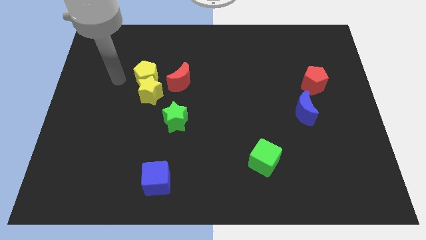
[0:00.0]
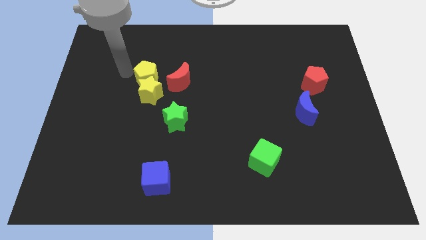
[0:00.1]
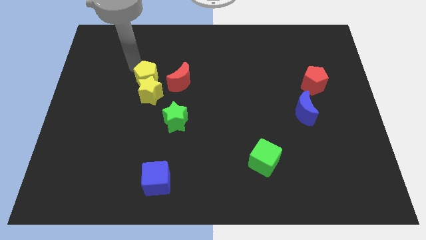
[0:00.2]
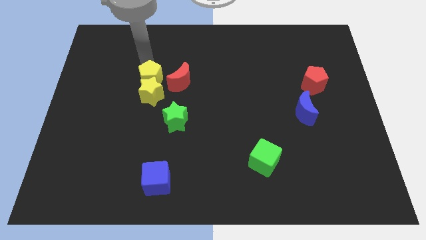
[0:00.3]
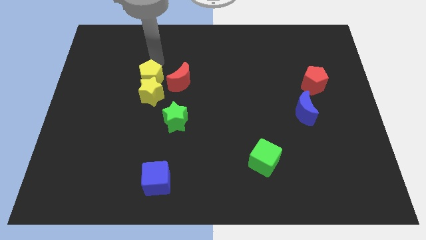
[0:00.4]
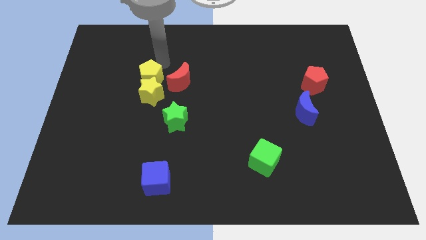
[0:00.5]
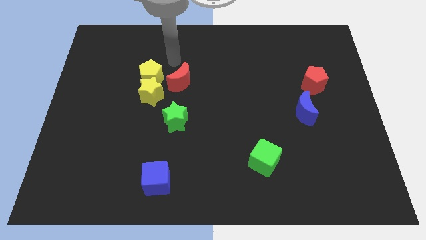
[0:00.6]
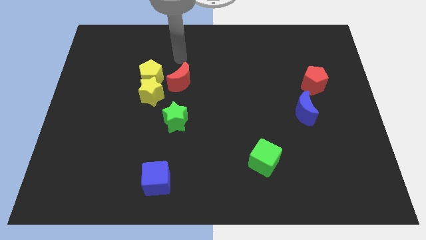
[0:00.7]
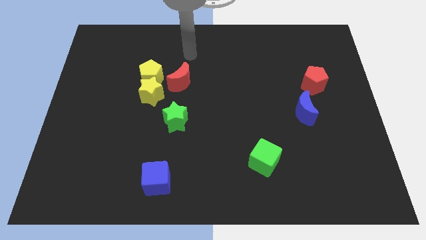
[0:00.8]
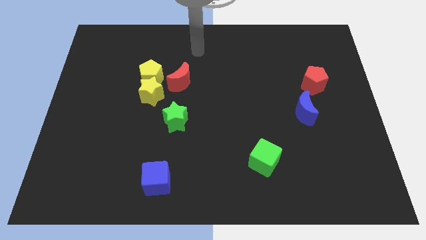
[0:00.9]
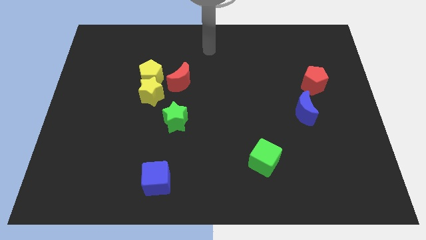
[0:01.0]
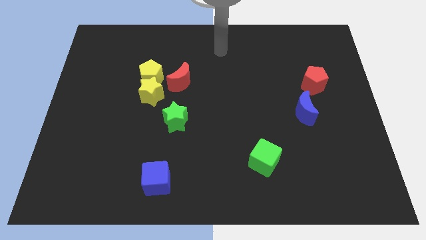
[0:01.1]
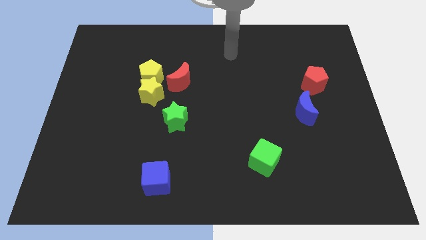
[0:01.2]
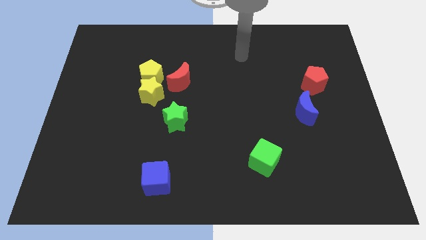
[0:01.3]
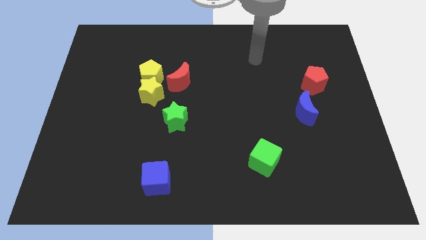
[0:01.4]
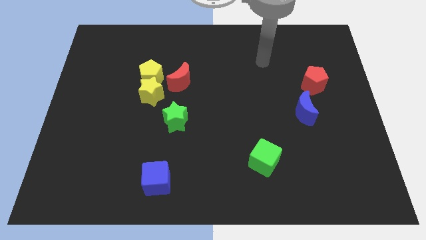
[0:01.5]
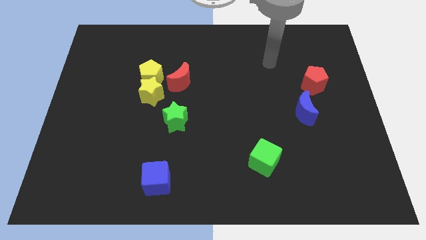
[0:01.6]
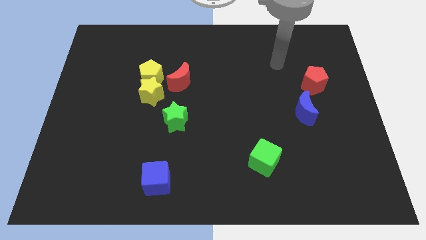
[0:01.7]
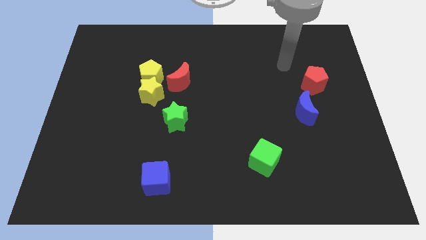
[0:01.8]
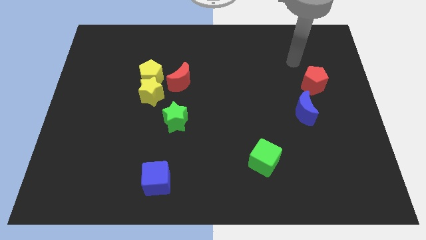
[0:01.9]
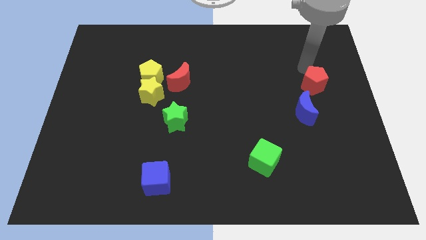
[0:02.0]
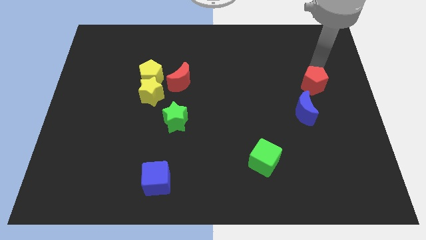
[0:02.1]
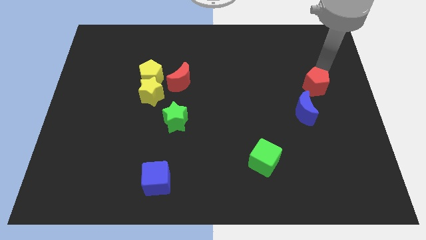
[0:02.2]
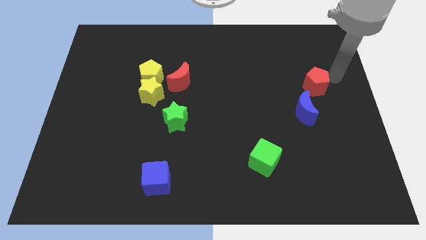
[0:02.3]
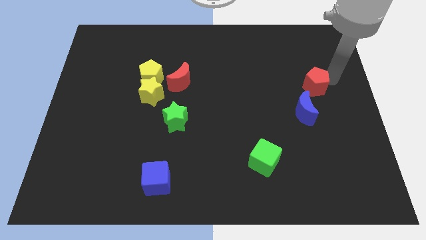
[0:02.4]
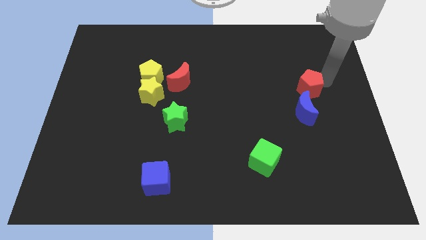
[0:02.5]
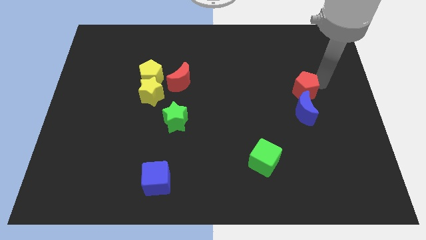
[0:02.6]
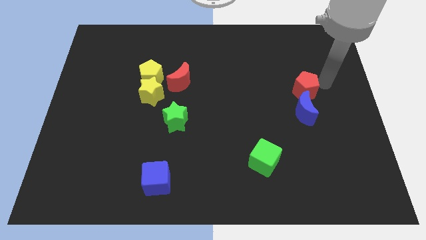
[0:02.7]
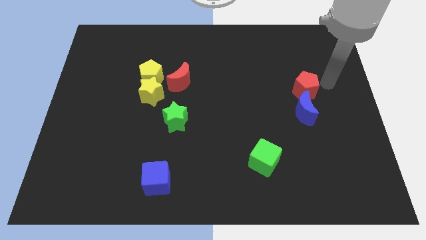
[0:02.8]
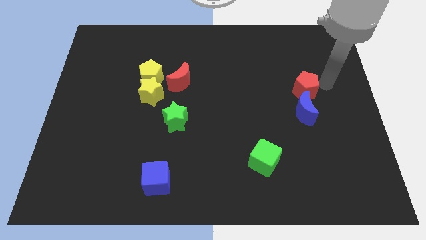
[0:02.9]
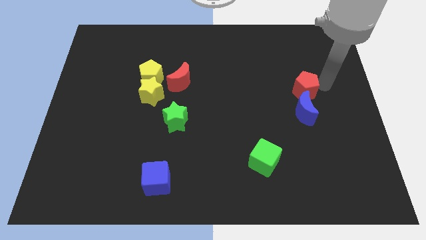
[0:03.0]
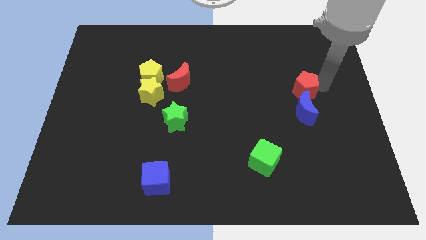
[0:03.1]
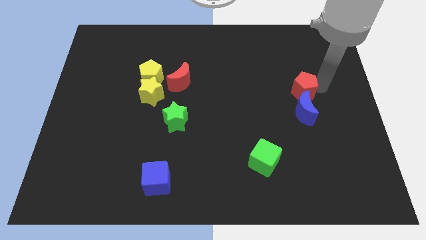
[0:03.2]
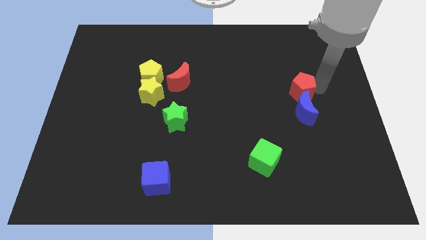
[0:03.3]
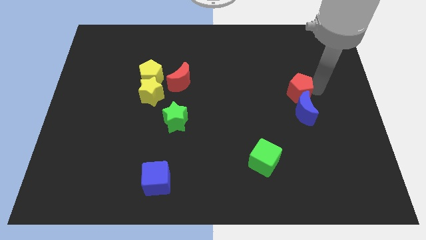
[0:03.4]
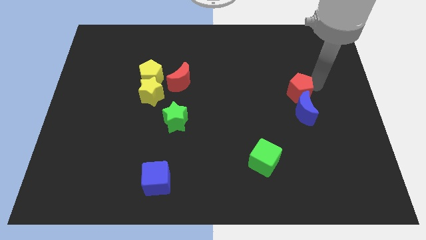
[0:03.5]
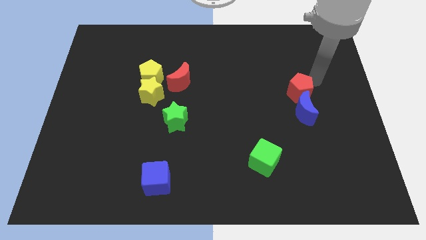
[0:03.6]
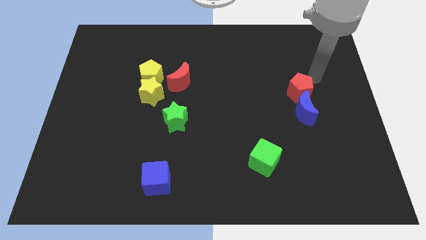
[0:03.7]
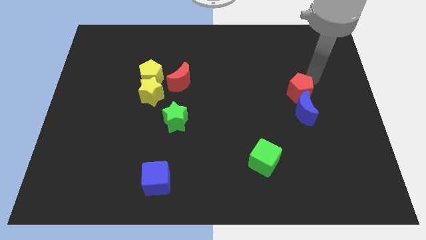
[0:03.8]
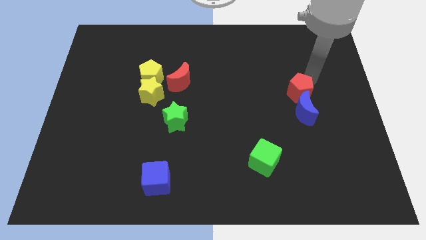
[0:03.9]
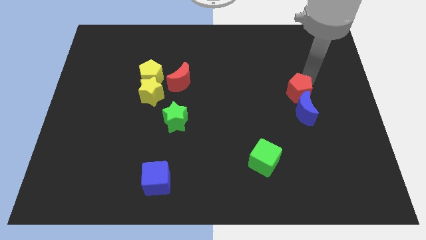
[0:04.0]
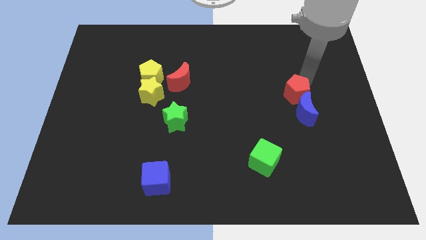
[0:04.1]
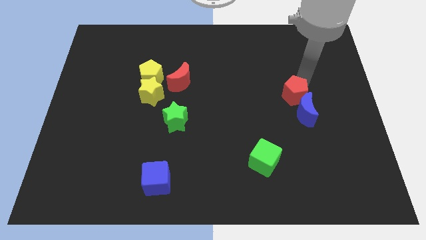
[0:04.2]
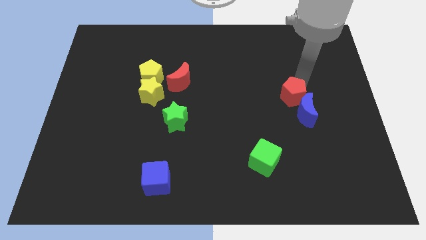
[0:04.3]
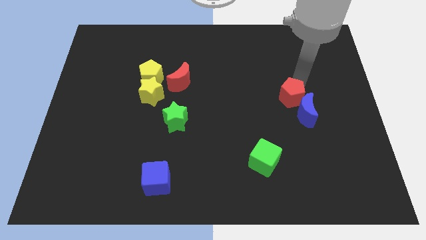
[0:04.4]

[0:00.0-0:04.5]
push the red pentagon a little diagonally down and left

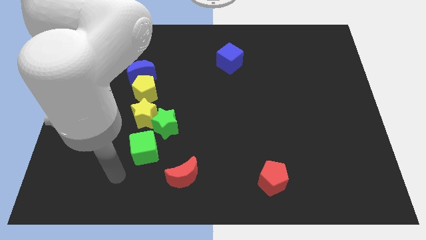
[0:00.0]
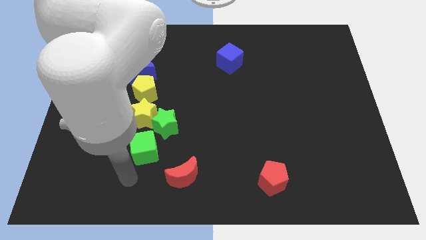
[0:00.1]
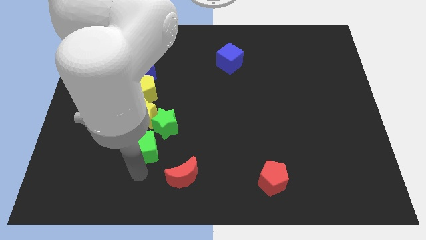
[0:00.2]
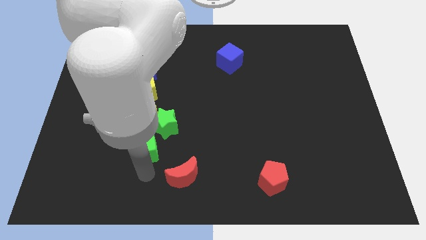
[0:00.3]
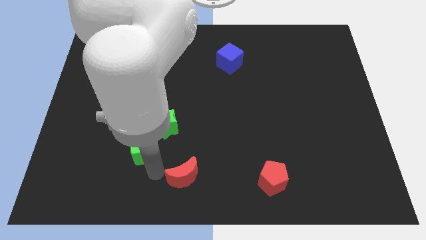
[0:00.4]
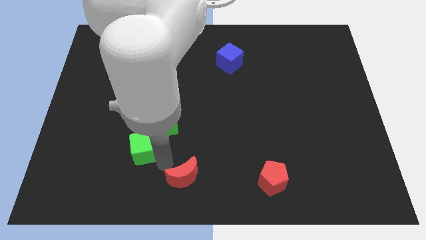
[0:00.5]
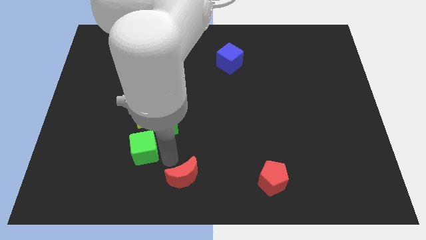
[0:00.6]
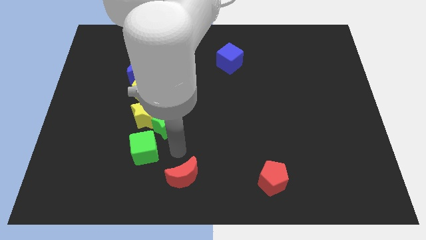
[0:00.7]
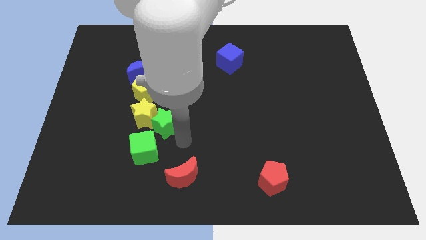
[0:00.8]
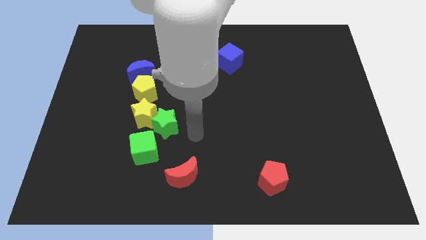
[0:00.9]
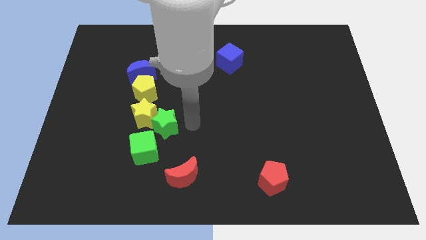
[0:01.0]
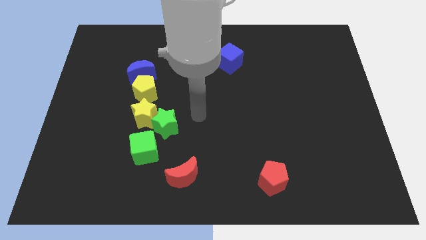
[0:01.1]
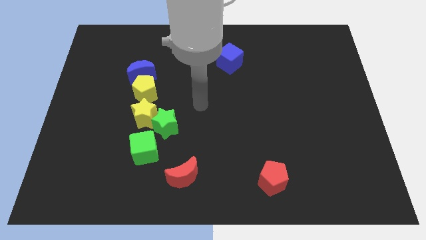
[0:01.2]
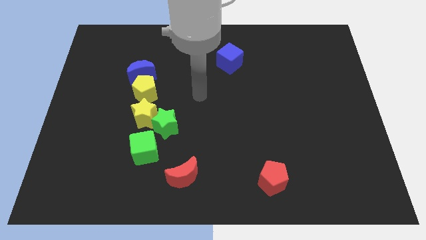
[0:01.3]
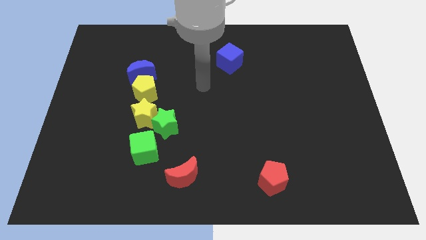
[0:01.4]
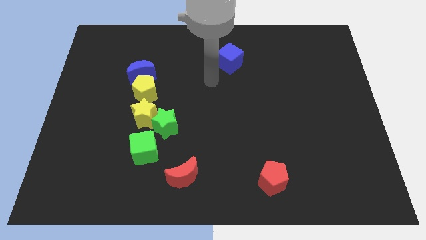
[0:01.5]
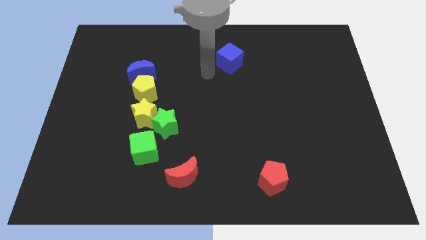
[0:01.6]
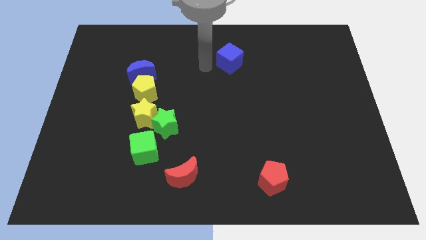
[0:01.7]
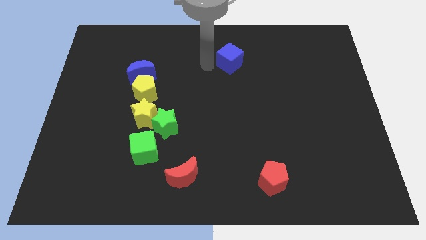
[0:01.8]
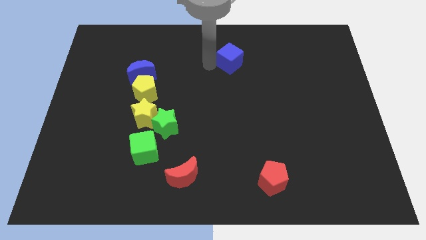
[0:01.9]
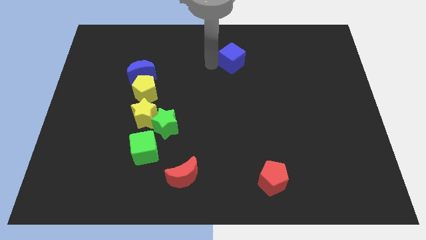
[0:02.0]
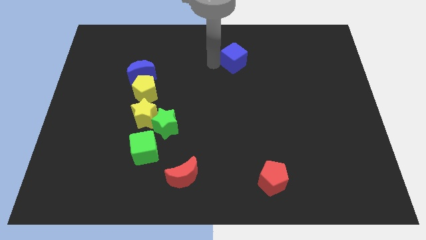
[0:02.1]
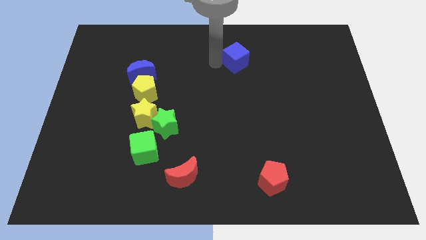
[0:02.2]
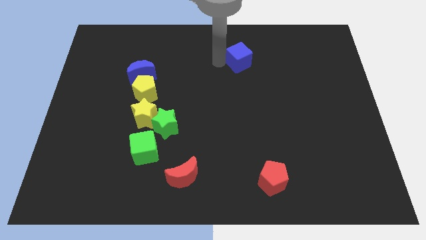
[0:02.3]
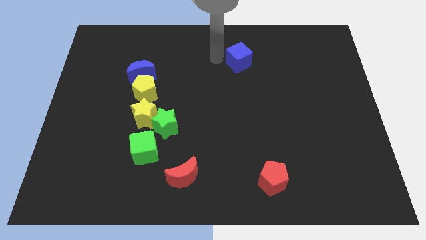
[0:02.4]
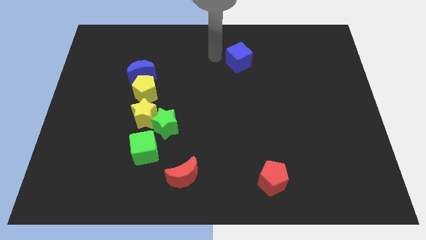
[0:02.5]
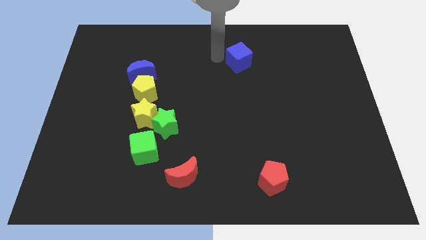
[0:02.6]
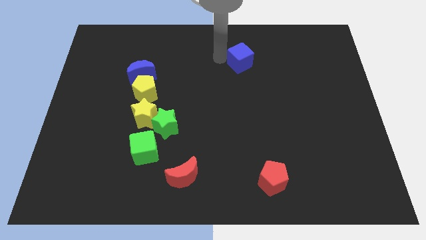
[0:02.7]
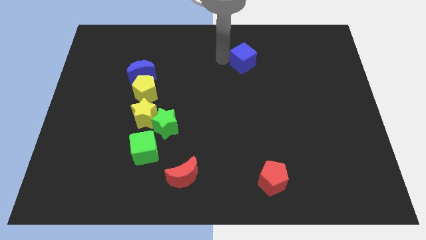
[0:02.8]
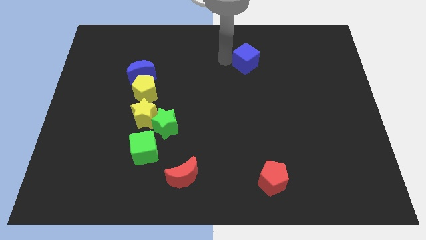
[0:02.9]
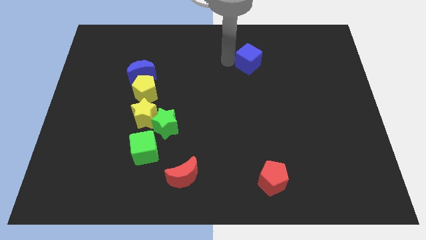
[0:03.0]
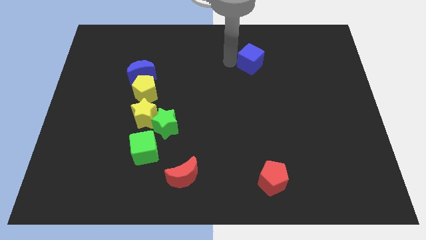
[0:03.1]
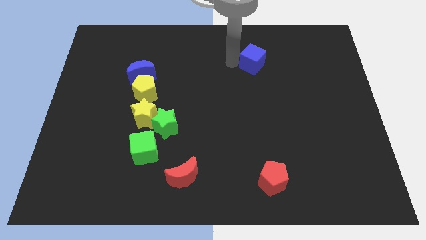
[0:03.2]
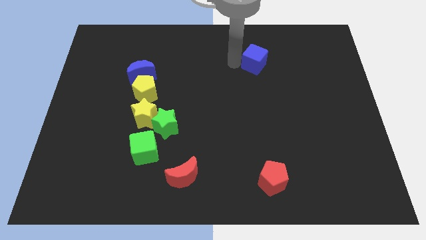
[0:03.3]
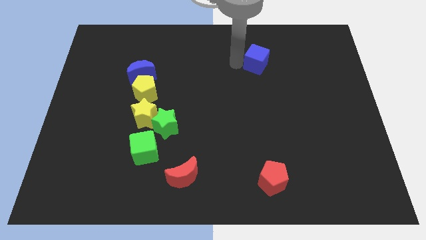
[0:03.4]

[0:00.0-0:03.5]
slide the blue cube to the right a little bit
